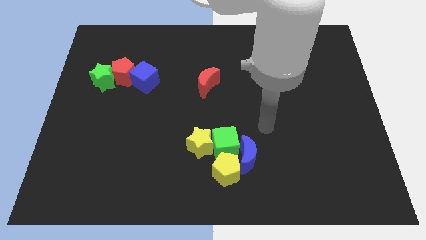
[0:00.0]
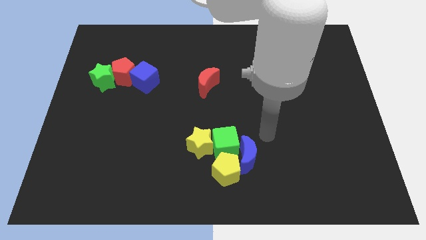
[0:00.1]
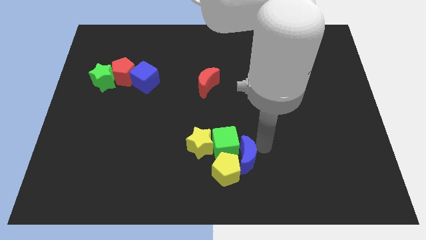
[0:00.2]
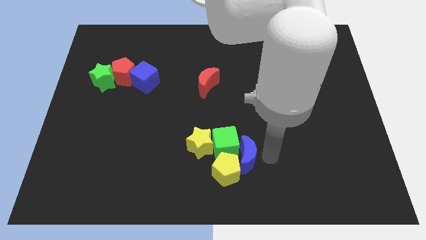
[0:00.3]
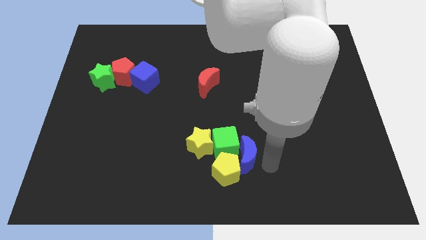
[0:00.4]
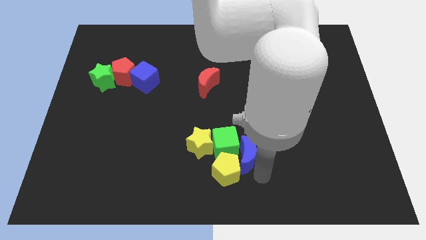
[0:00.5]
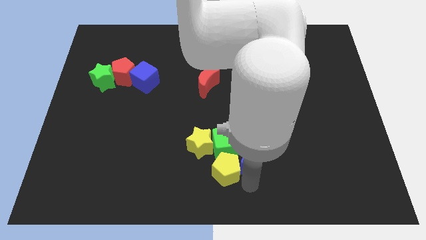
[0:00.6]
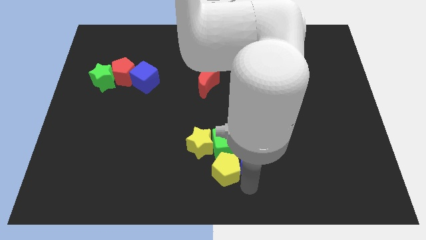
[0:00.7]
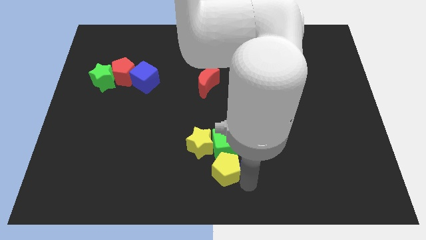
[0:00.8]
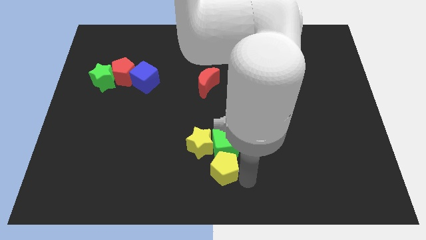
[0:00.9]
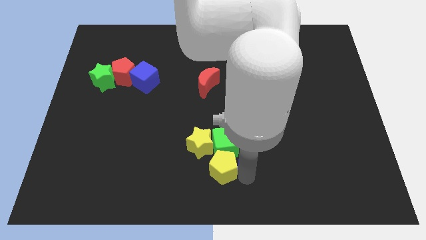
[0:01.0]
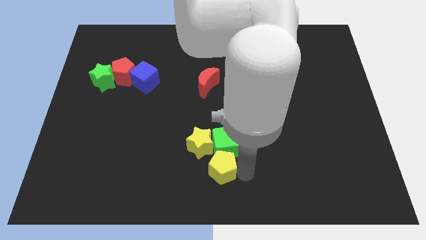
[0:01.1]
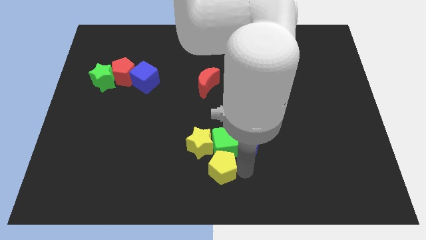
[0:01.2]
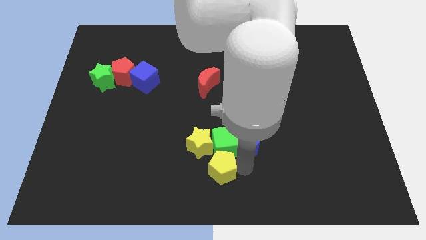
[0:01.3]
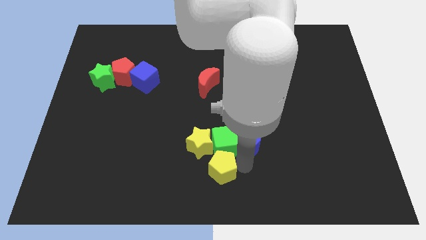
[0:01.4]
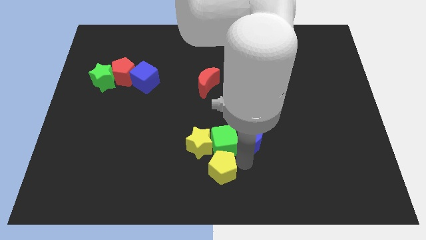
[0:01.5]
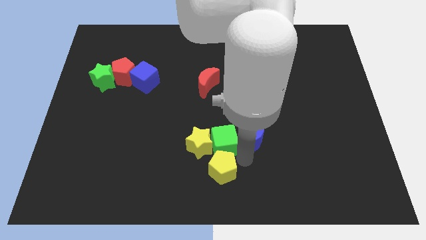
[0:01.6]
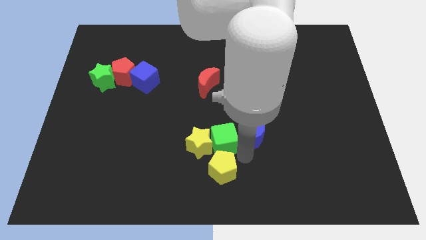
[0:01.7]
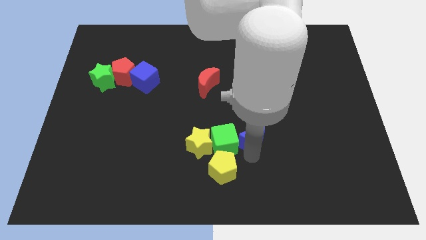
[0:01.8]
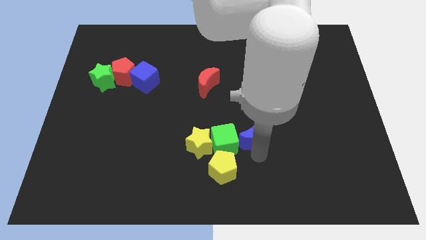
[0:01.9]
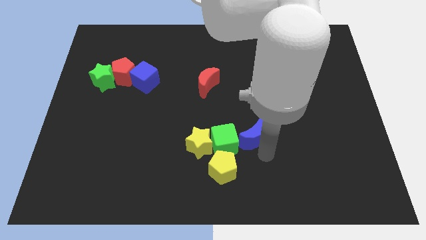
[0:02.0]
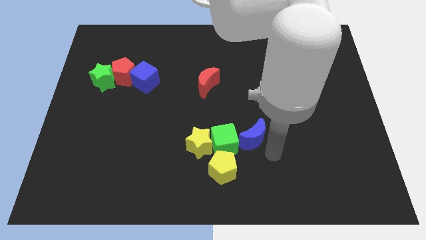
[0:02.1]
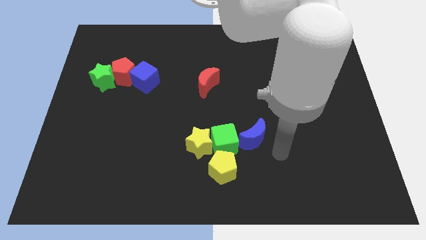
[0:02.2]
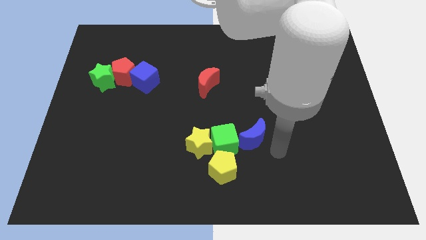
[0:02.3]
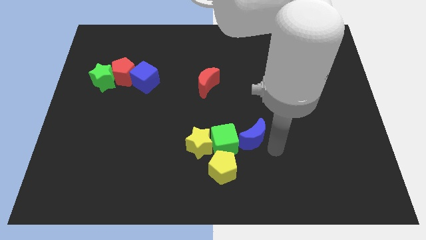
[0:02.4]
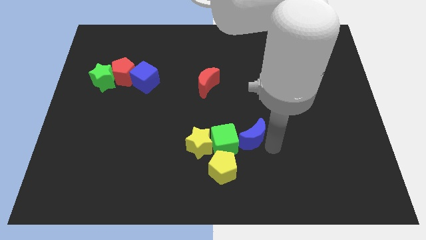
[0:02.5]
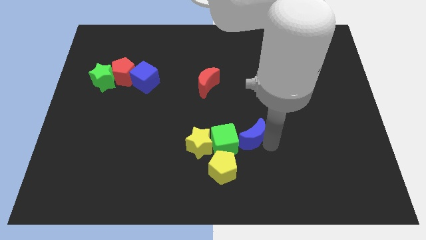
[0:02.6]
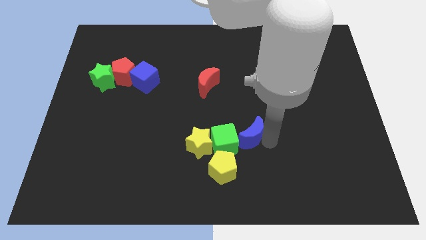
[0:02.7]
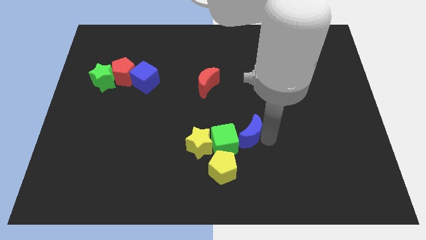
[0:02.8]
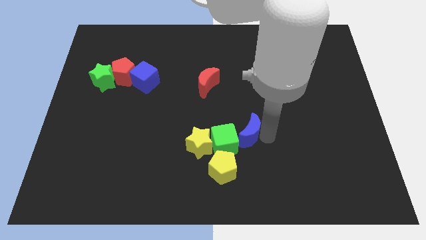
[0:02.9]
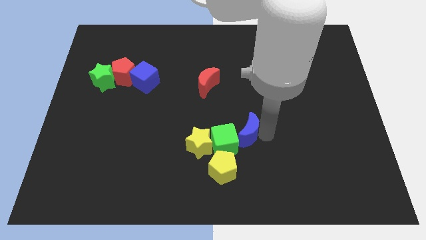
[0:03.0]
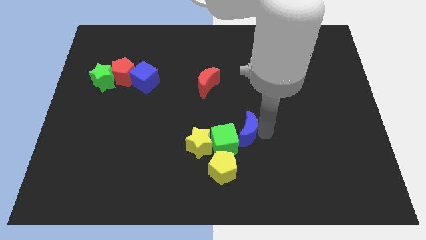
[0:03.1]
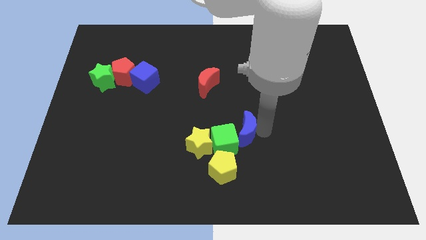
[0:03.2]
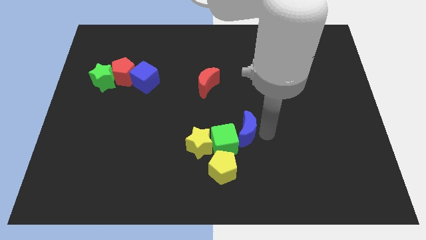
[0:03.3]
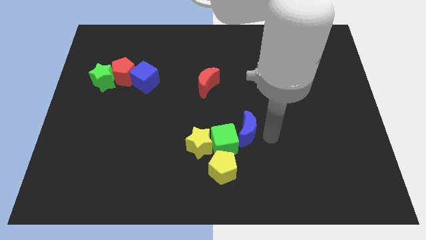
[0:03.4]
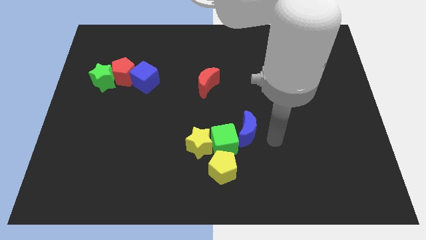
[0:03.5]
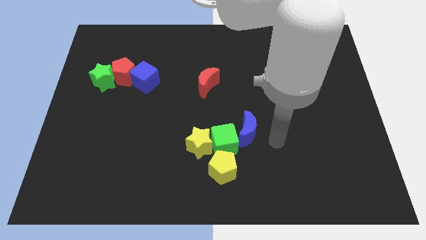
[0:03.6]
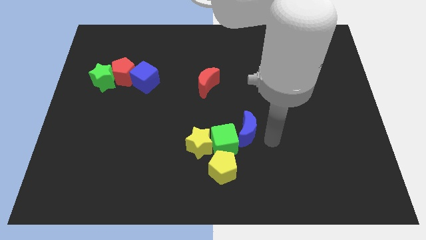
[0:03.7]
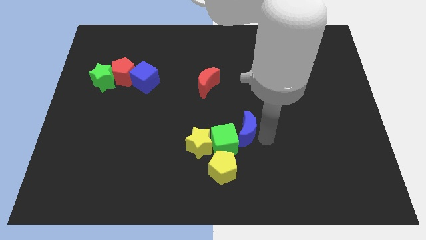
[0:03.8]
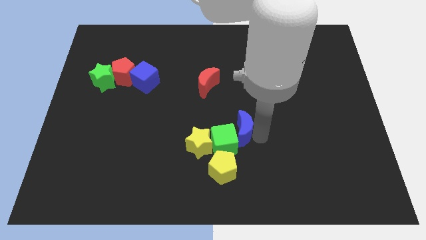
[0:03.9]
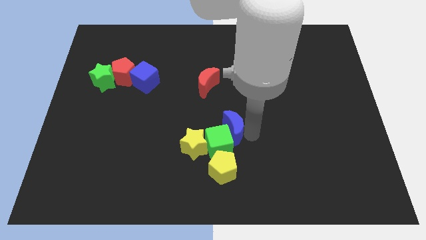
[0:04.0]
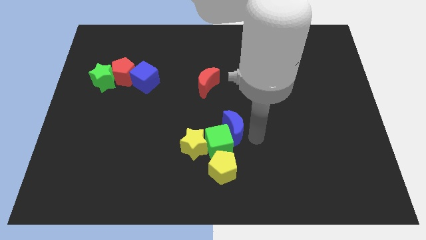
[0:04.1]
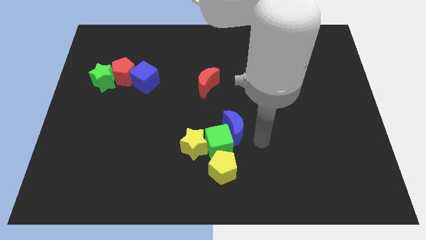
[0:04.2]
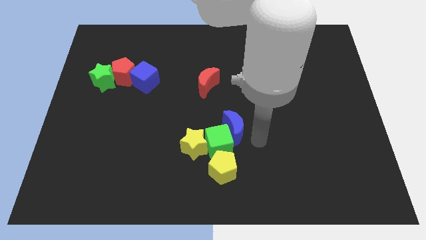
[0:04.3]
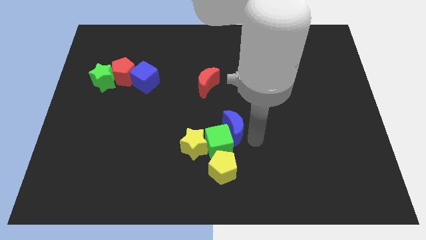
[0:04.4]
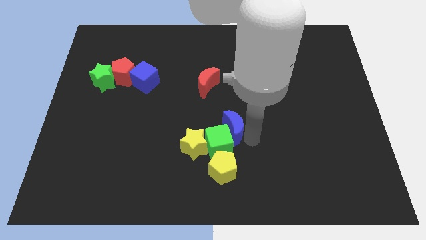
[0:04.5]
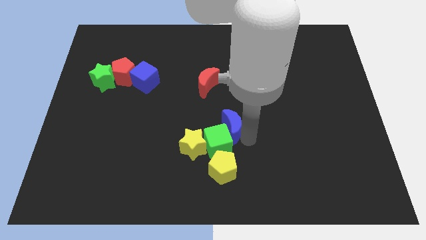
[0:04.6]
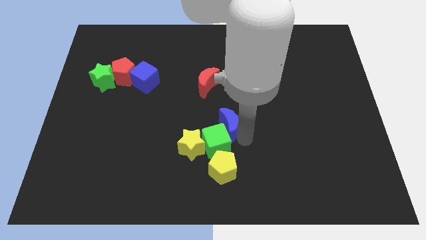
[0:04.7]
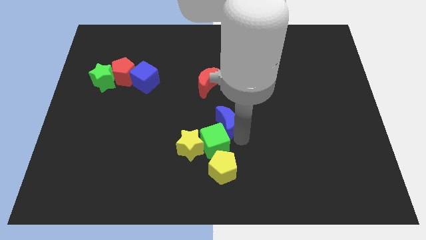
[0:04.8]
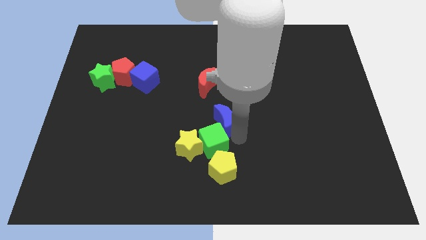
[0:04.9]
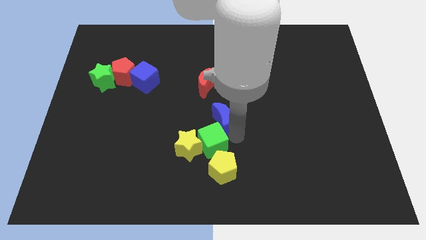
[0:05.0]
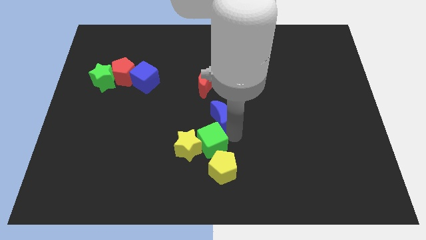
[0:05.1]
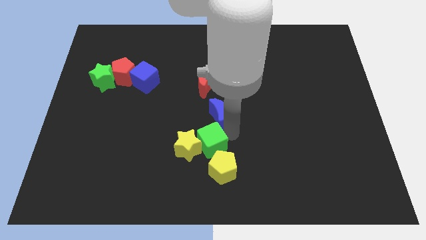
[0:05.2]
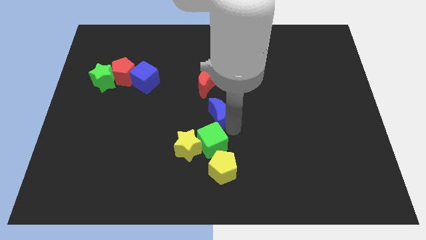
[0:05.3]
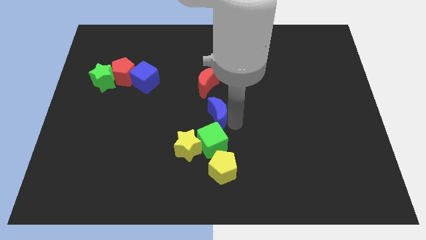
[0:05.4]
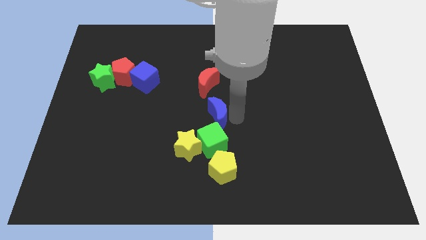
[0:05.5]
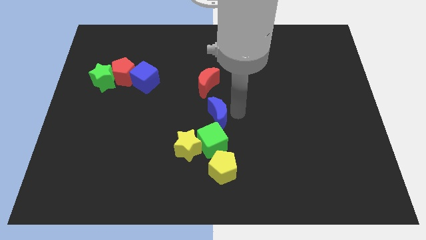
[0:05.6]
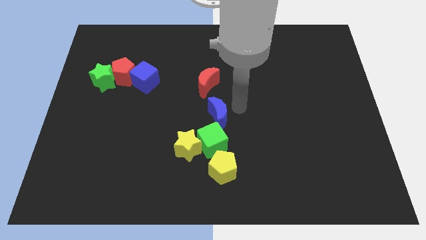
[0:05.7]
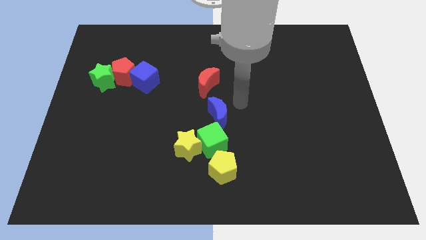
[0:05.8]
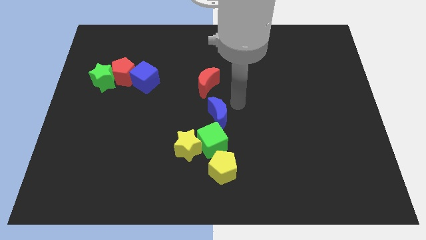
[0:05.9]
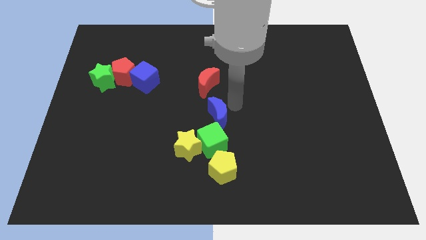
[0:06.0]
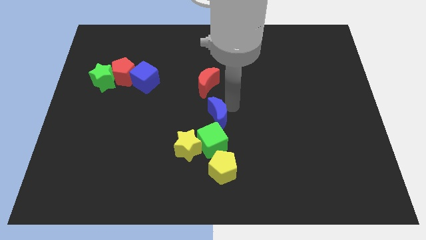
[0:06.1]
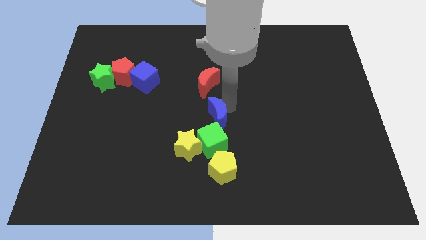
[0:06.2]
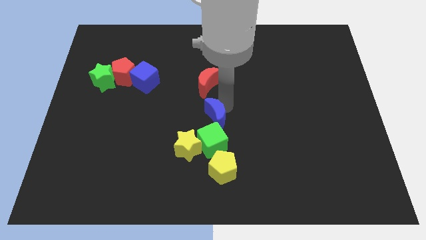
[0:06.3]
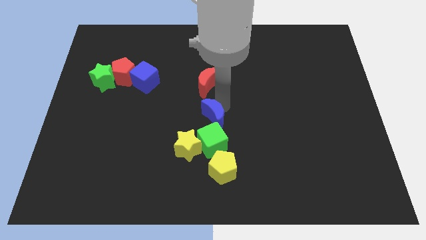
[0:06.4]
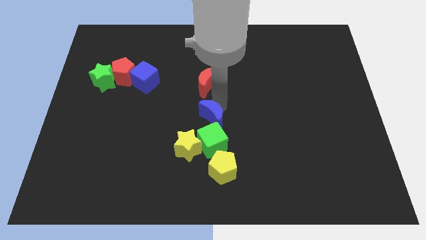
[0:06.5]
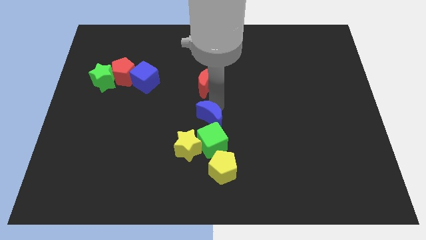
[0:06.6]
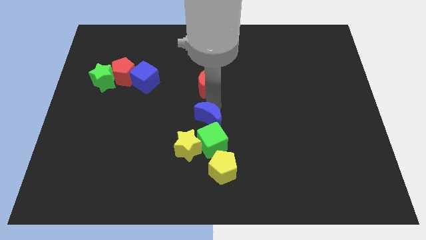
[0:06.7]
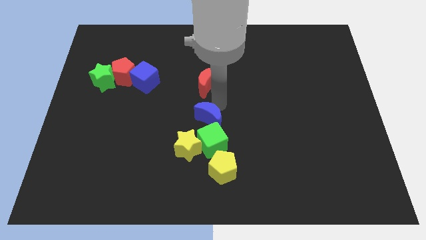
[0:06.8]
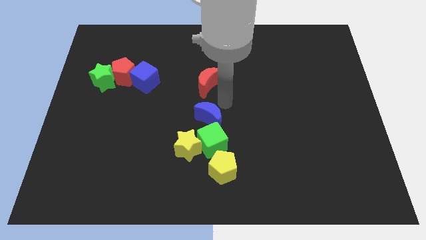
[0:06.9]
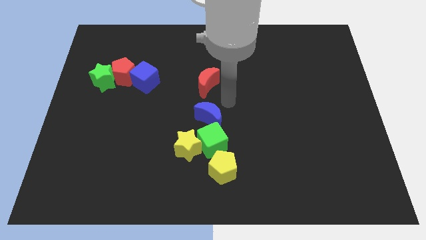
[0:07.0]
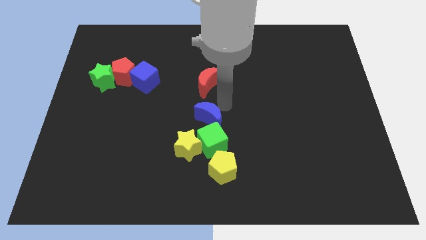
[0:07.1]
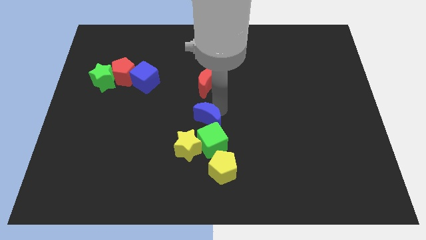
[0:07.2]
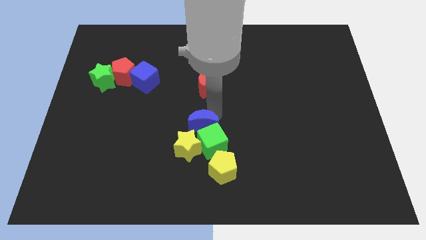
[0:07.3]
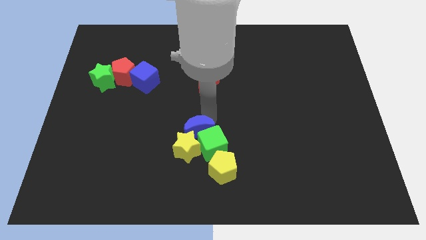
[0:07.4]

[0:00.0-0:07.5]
put the blue moon close to the yellow star

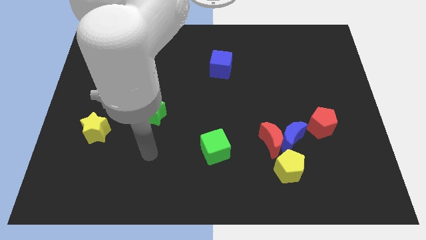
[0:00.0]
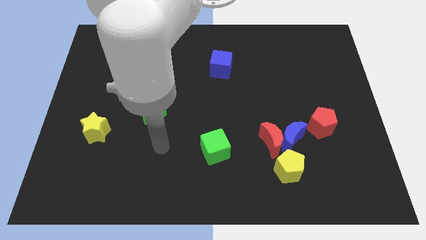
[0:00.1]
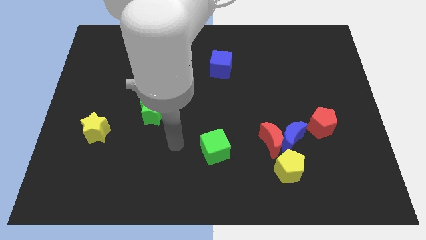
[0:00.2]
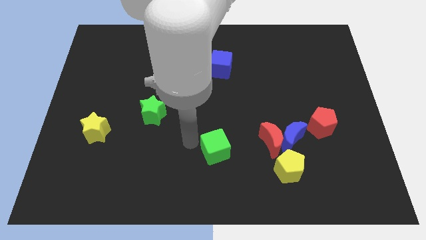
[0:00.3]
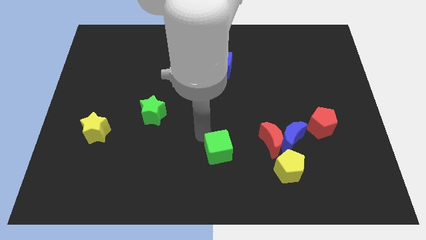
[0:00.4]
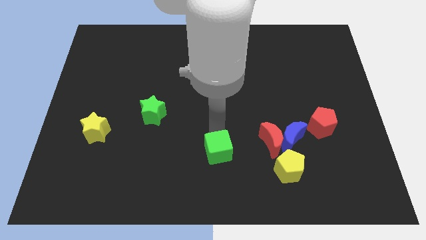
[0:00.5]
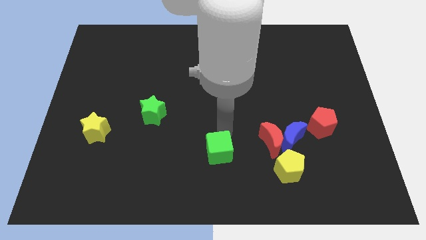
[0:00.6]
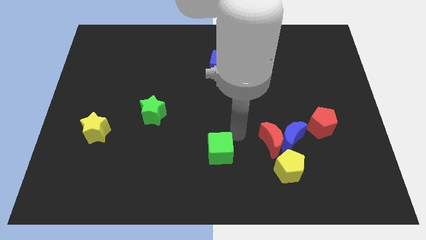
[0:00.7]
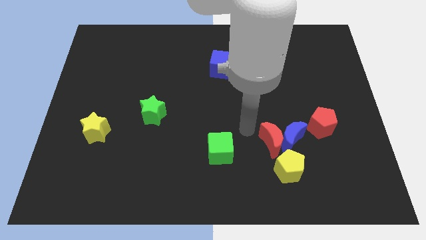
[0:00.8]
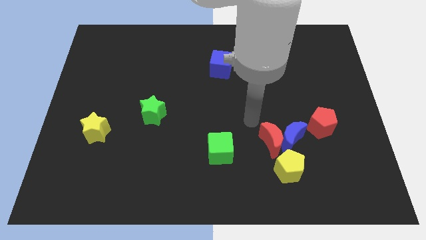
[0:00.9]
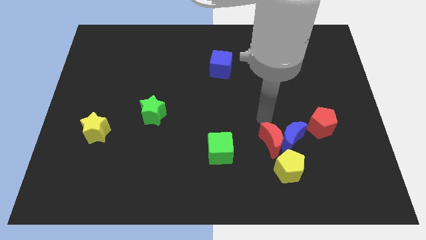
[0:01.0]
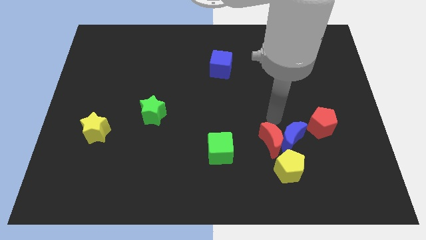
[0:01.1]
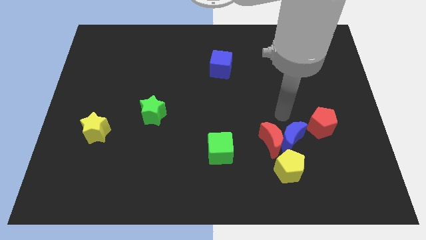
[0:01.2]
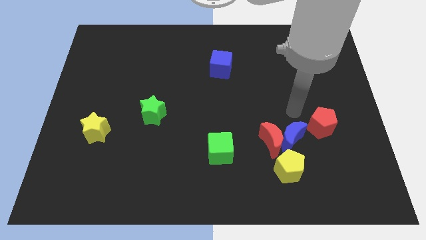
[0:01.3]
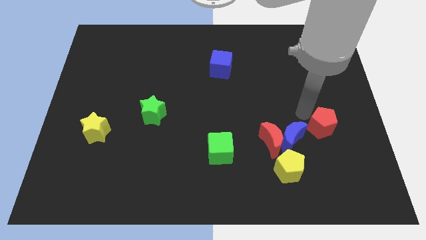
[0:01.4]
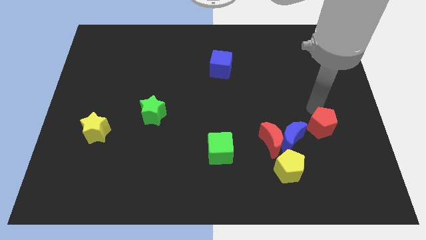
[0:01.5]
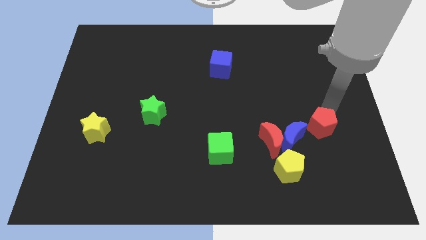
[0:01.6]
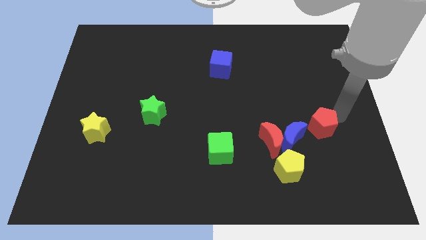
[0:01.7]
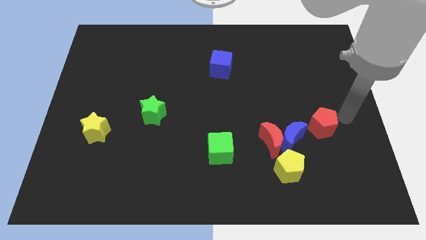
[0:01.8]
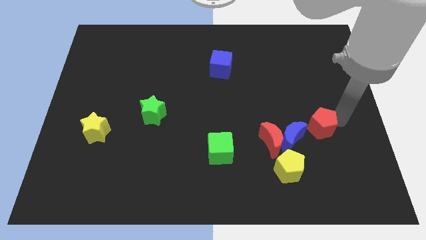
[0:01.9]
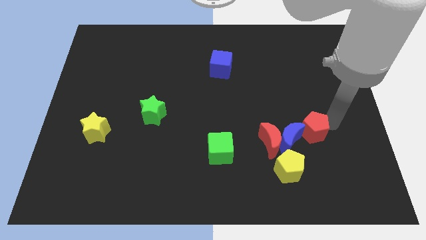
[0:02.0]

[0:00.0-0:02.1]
move the red pentagon towards the blue moon
